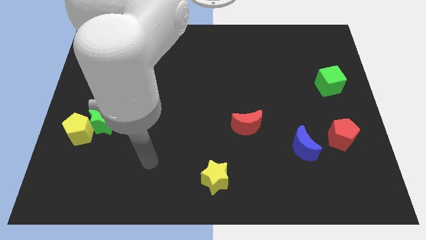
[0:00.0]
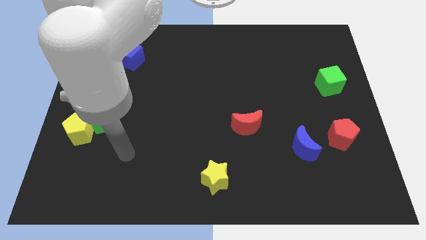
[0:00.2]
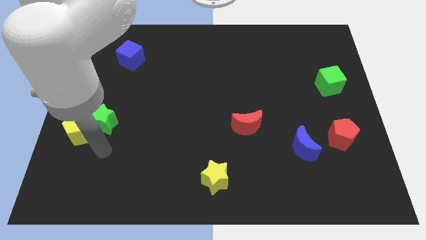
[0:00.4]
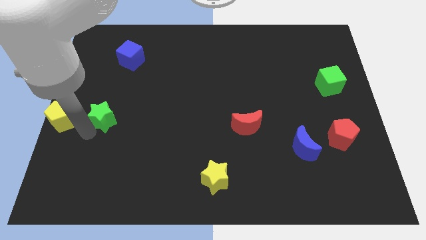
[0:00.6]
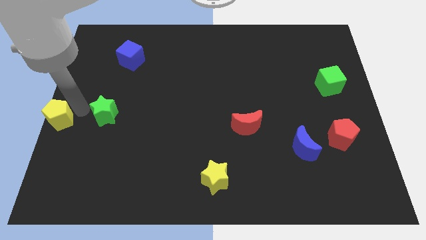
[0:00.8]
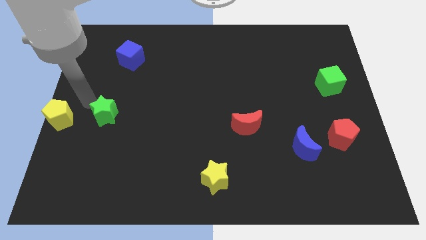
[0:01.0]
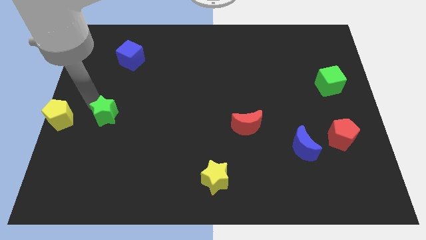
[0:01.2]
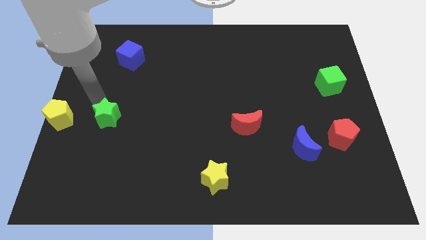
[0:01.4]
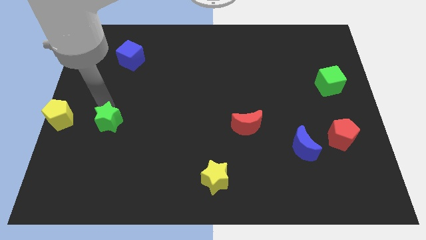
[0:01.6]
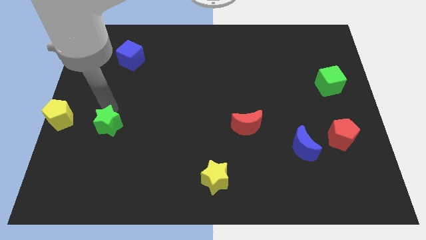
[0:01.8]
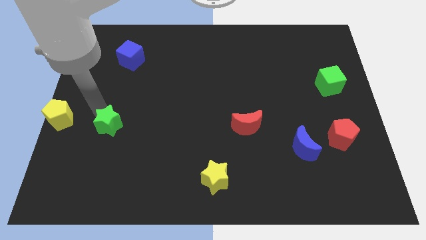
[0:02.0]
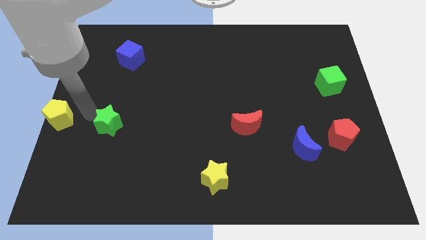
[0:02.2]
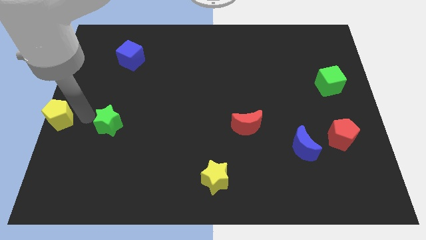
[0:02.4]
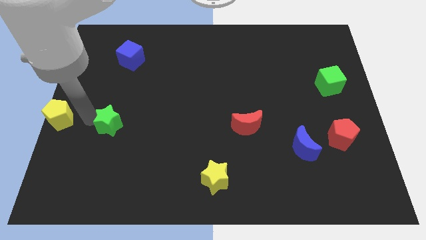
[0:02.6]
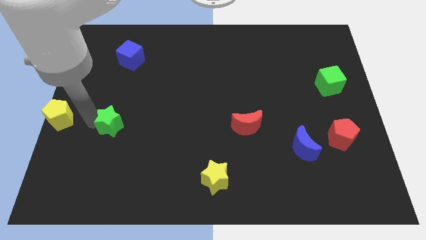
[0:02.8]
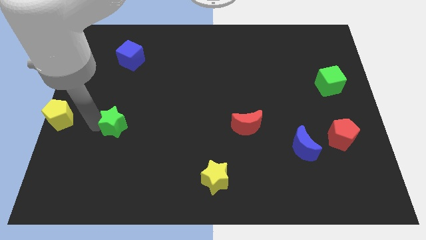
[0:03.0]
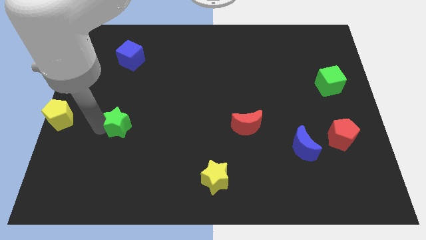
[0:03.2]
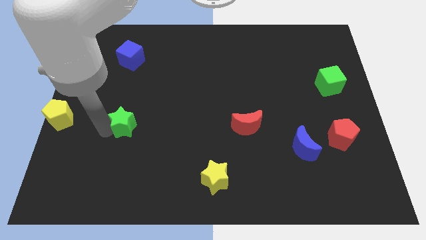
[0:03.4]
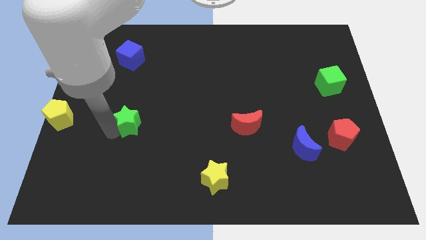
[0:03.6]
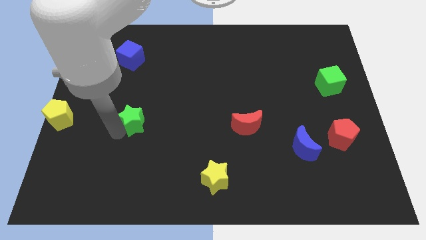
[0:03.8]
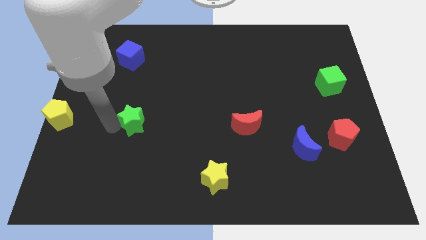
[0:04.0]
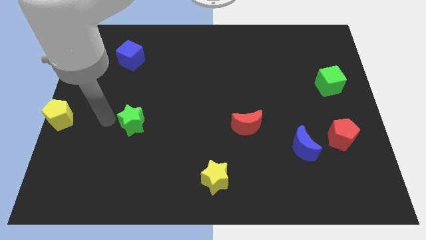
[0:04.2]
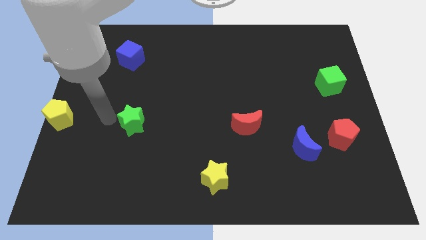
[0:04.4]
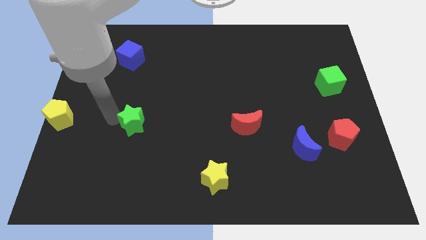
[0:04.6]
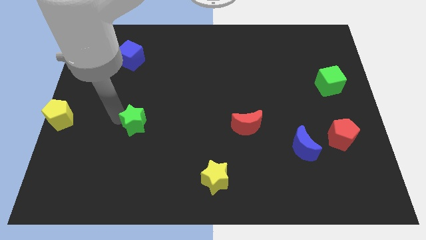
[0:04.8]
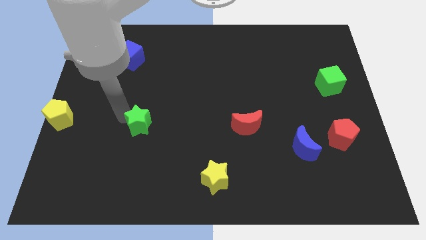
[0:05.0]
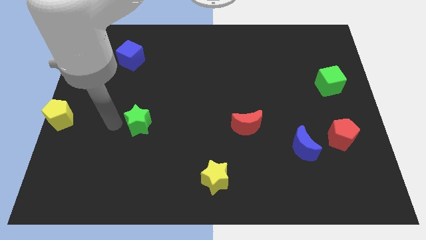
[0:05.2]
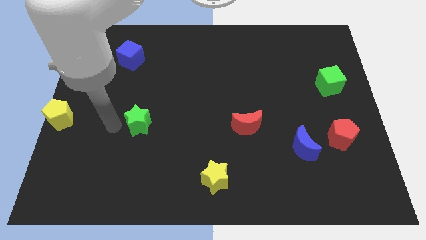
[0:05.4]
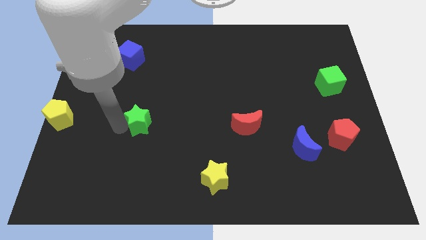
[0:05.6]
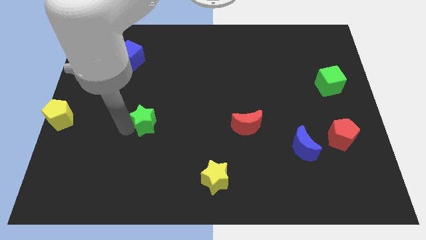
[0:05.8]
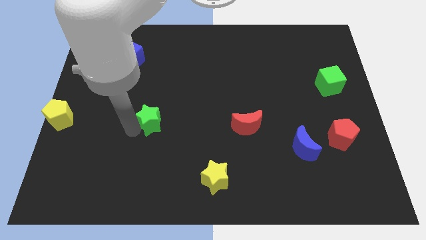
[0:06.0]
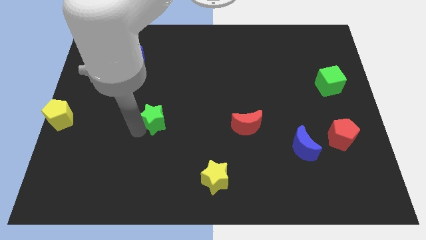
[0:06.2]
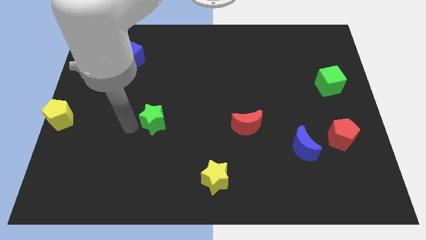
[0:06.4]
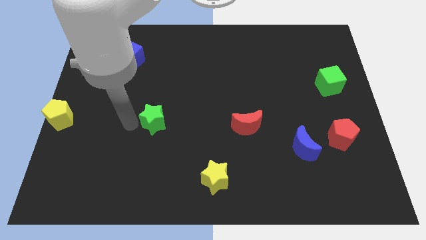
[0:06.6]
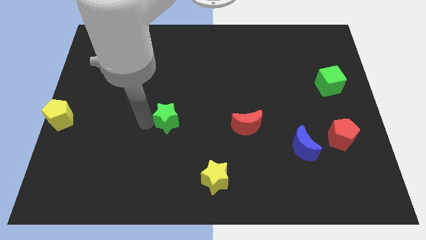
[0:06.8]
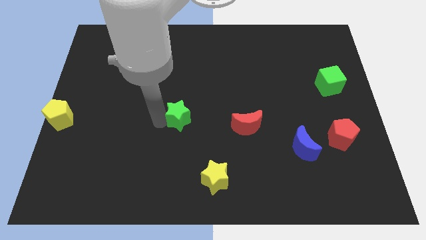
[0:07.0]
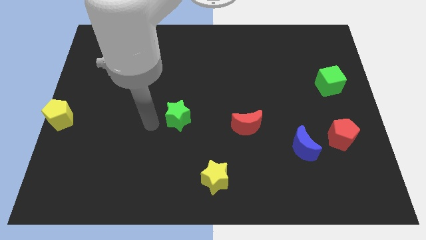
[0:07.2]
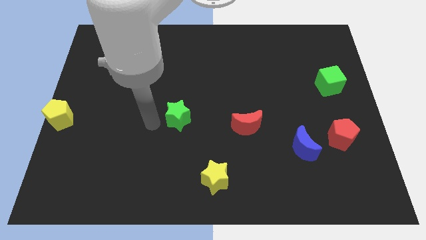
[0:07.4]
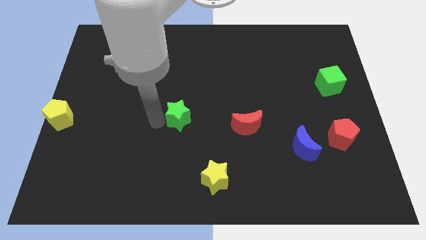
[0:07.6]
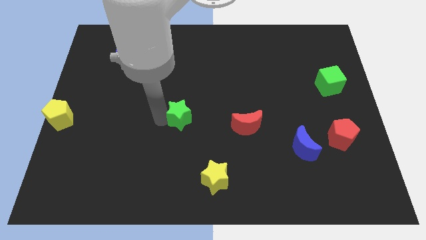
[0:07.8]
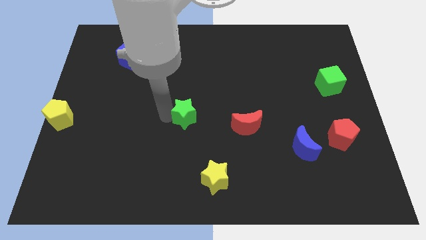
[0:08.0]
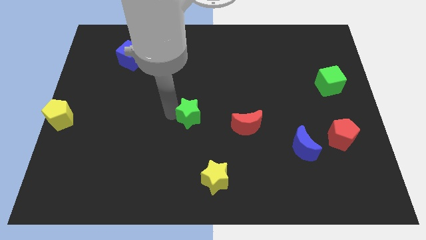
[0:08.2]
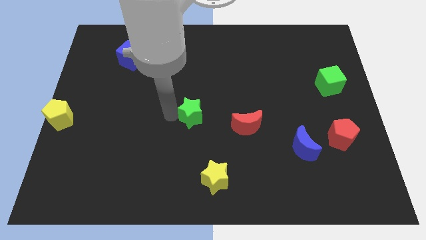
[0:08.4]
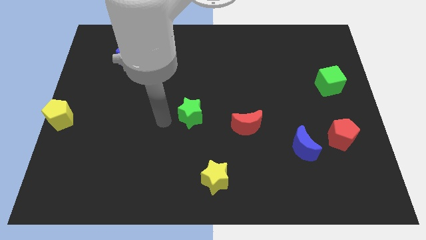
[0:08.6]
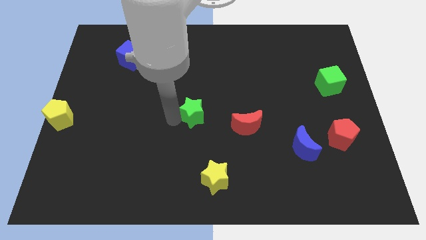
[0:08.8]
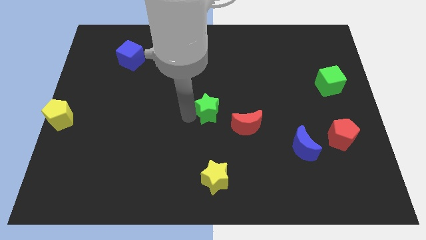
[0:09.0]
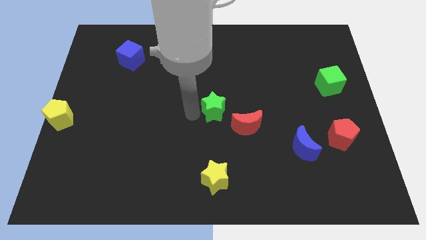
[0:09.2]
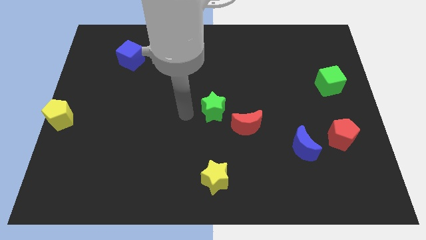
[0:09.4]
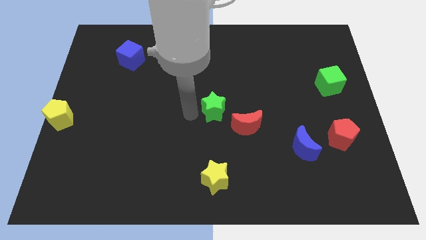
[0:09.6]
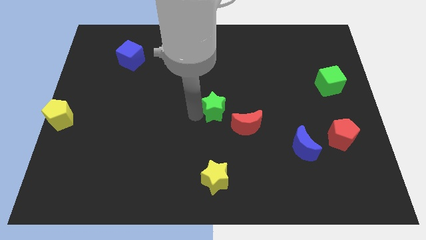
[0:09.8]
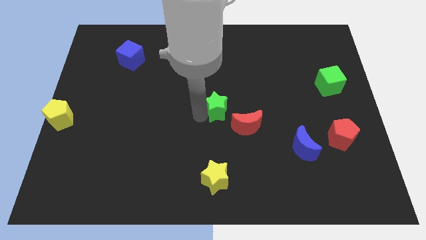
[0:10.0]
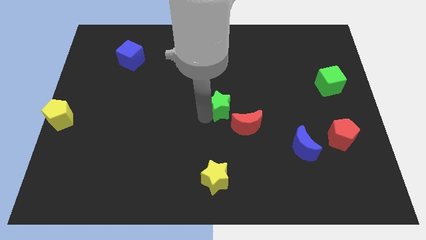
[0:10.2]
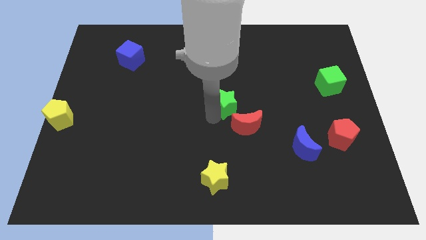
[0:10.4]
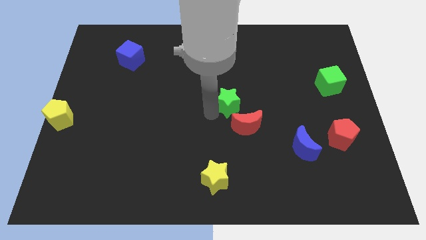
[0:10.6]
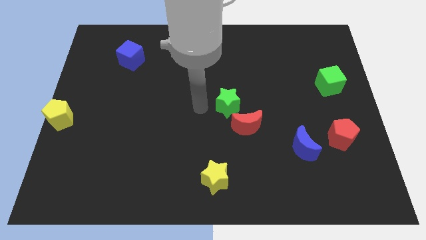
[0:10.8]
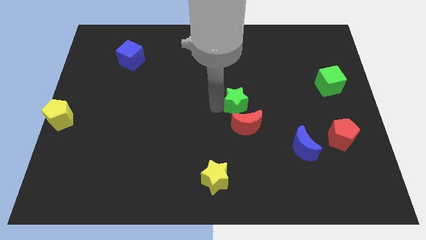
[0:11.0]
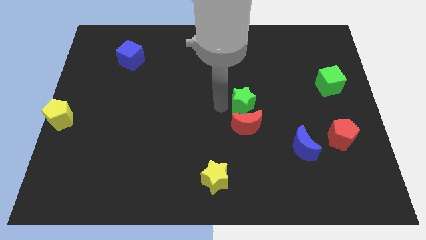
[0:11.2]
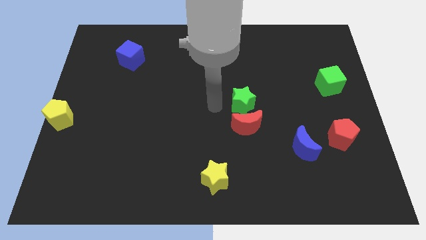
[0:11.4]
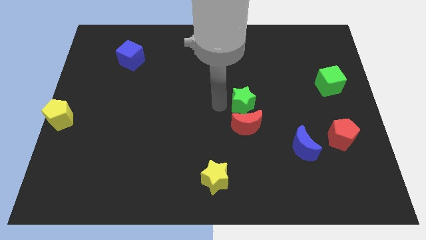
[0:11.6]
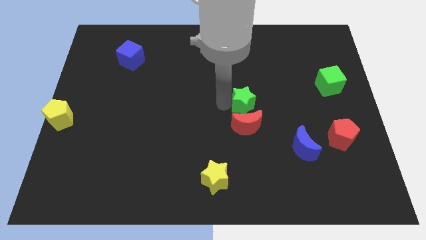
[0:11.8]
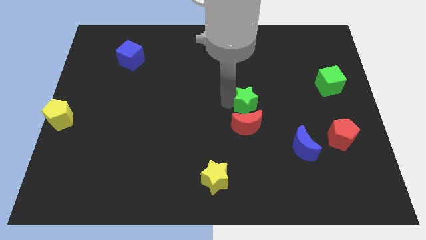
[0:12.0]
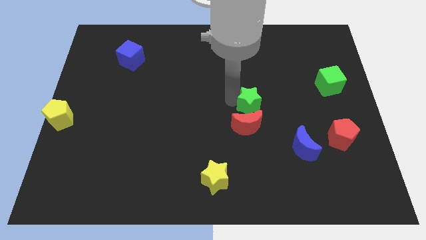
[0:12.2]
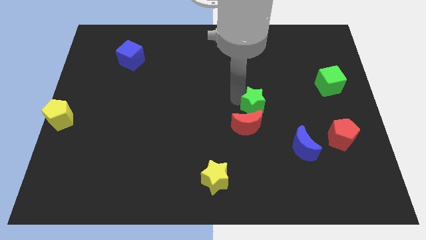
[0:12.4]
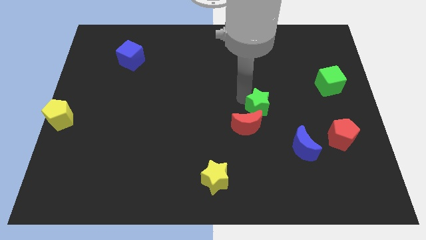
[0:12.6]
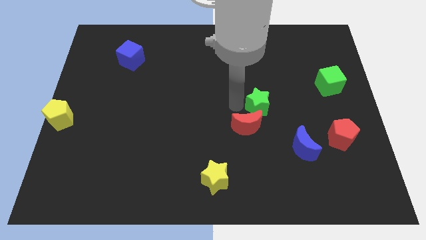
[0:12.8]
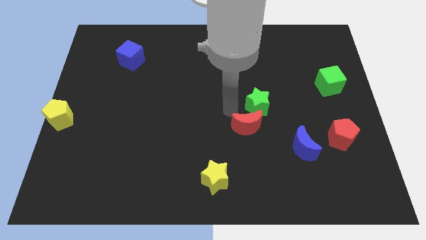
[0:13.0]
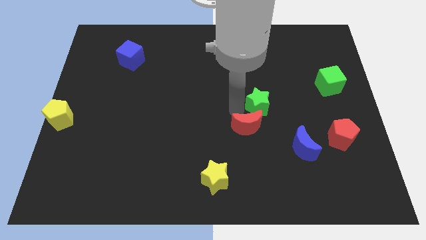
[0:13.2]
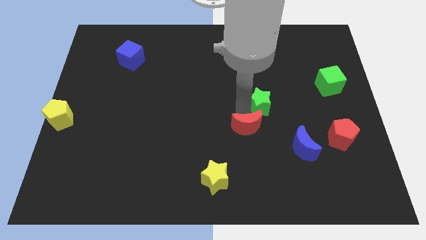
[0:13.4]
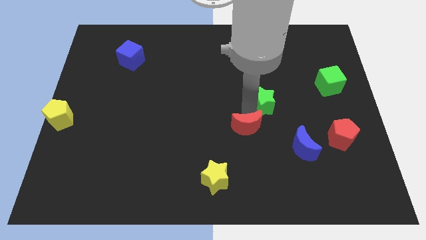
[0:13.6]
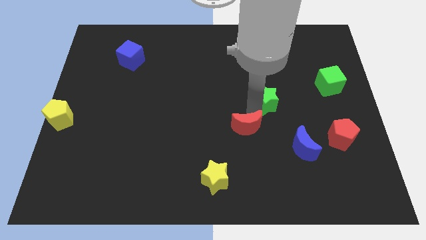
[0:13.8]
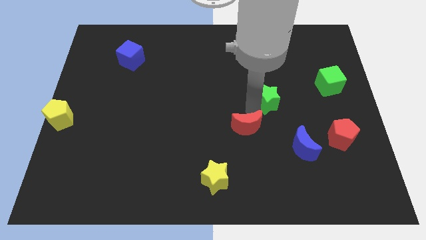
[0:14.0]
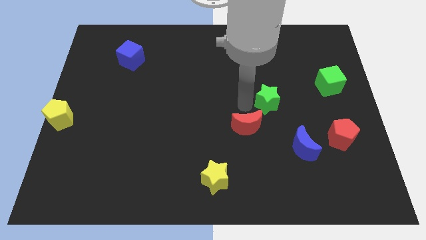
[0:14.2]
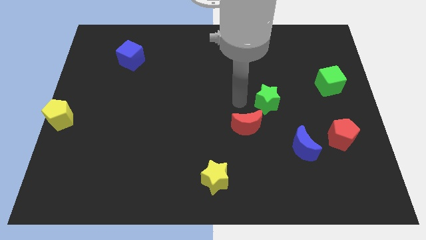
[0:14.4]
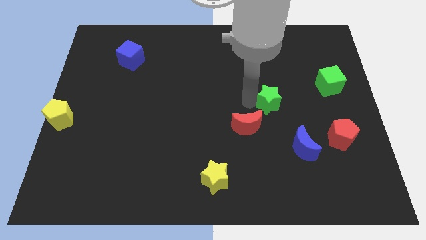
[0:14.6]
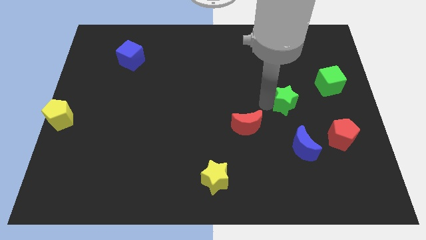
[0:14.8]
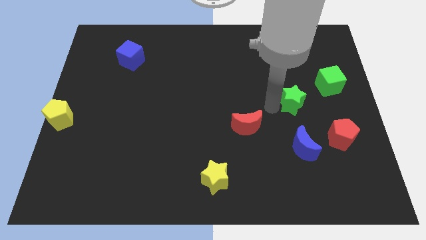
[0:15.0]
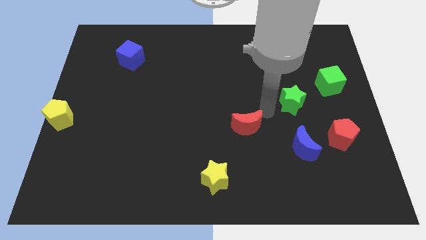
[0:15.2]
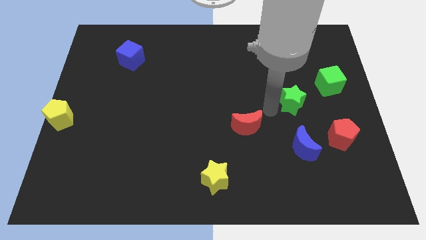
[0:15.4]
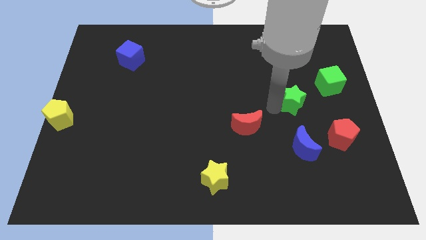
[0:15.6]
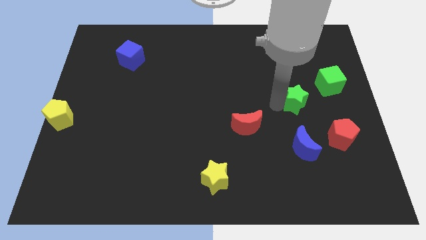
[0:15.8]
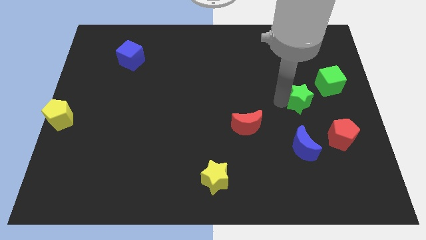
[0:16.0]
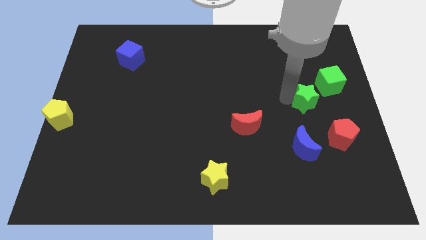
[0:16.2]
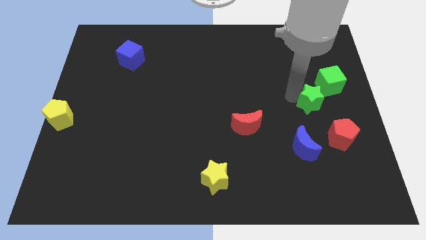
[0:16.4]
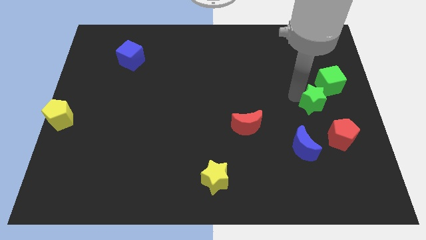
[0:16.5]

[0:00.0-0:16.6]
slide the green star to the top of the red pentagon

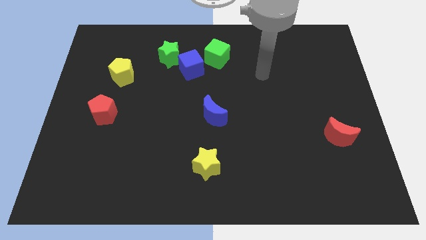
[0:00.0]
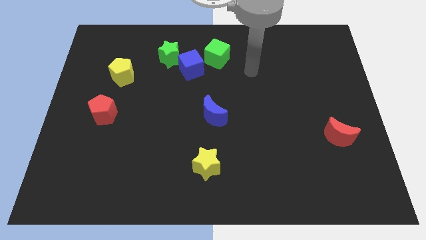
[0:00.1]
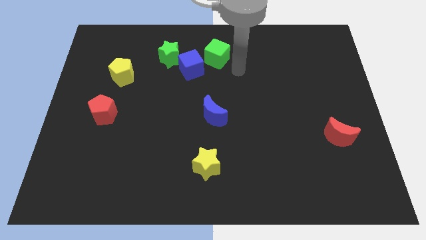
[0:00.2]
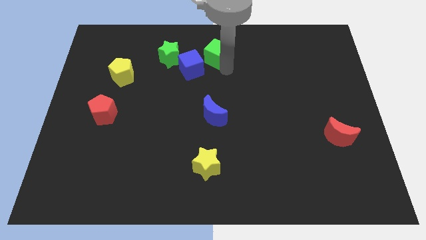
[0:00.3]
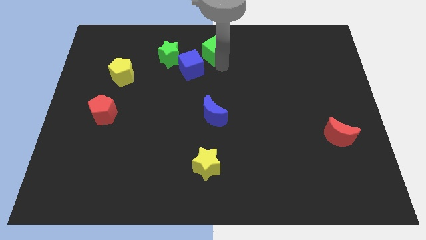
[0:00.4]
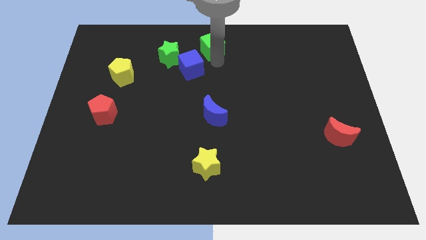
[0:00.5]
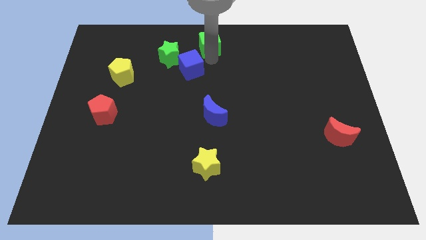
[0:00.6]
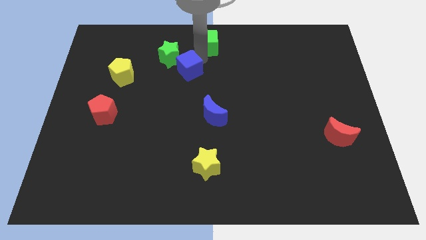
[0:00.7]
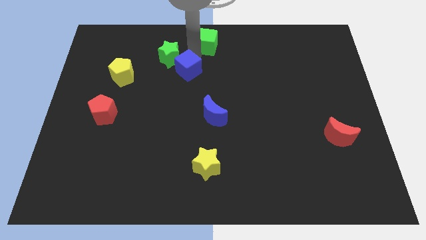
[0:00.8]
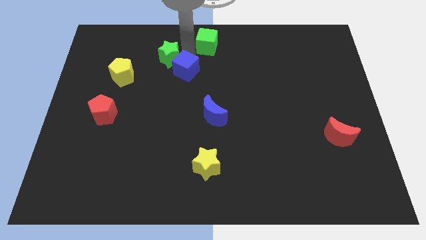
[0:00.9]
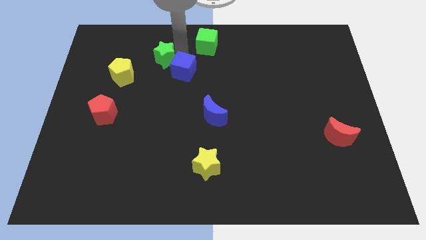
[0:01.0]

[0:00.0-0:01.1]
slide the green star to the top right side of the yellow pentagon
